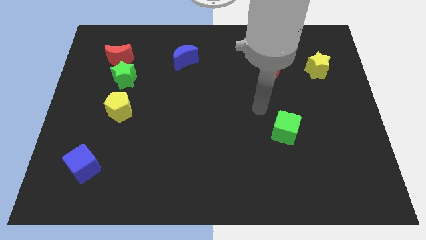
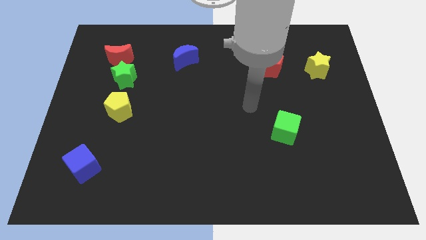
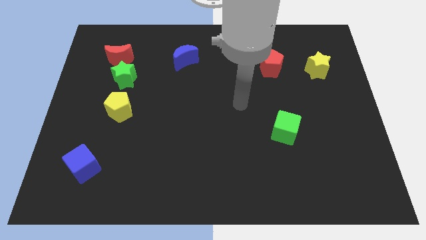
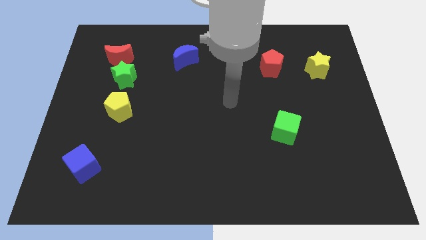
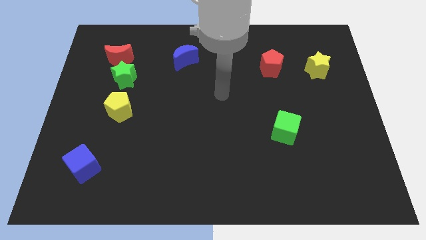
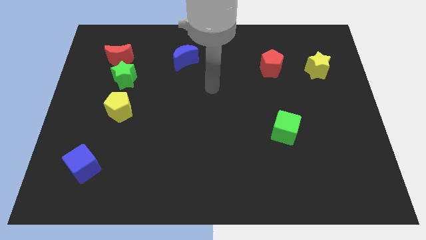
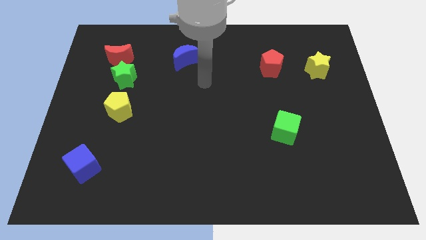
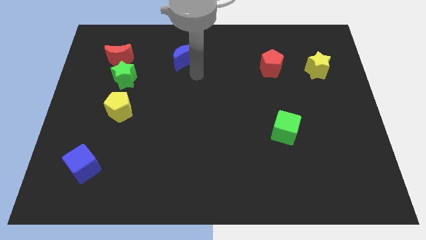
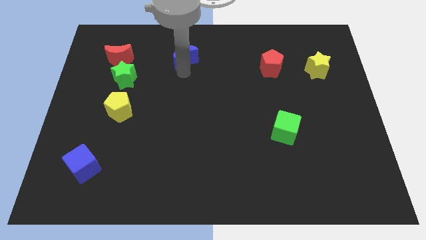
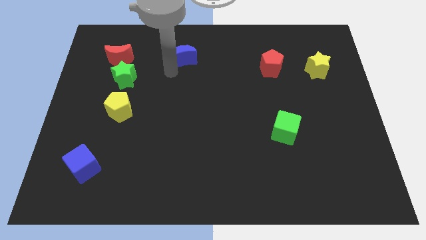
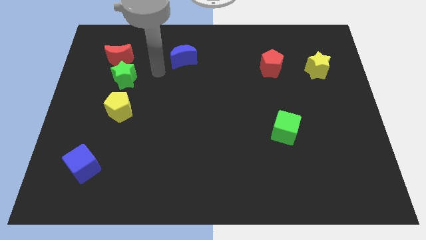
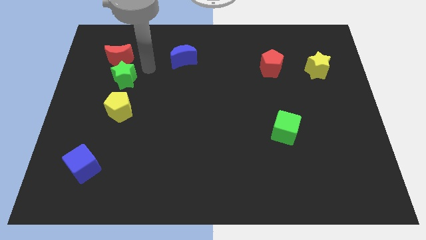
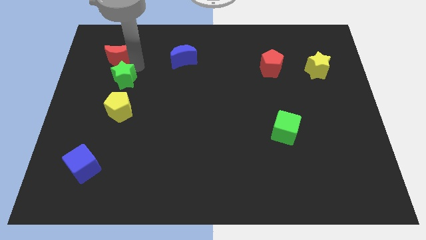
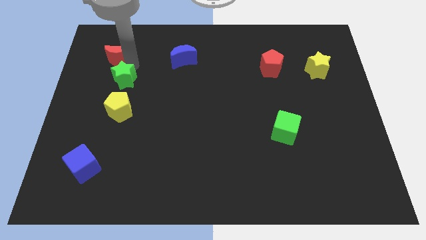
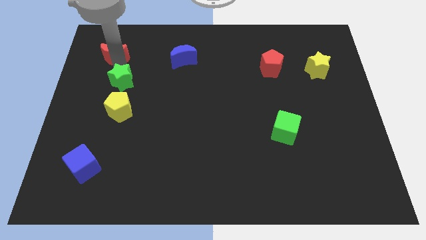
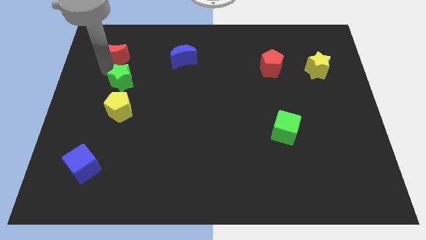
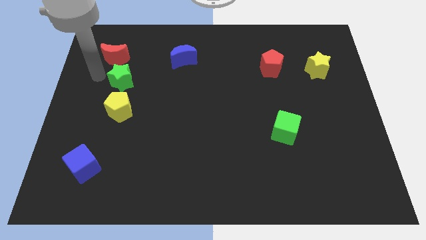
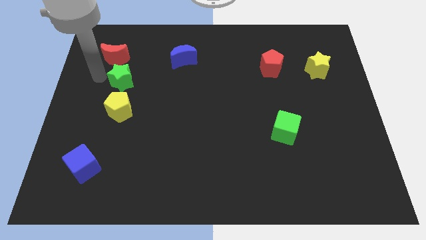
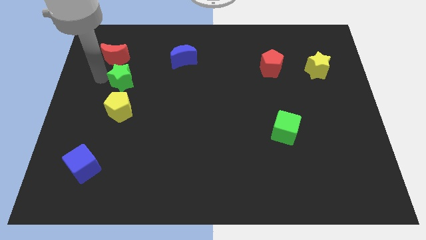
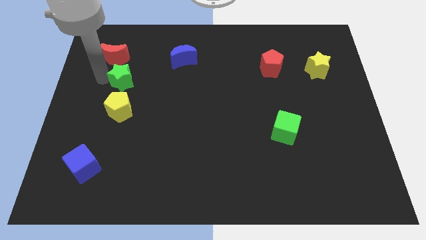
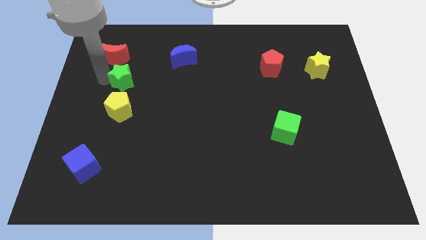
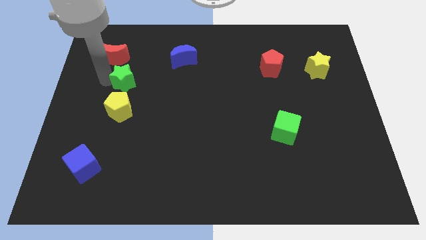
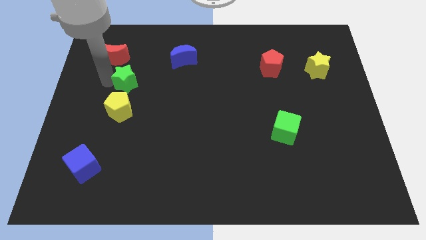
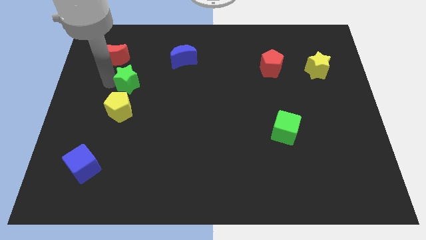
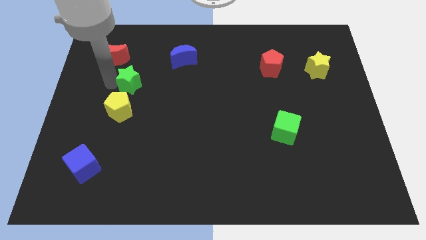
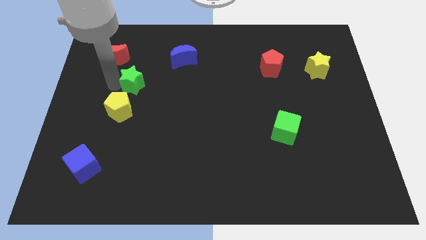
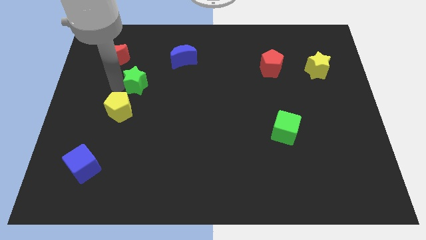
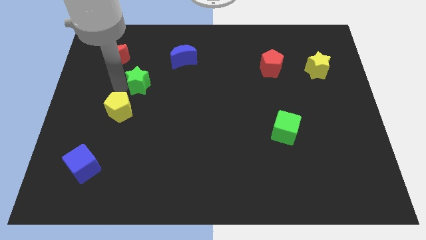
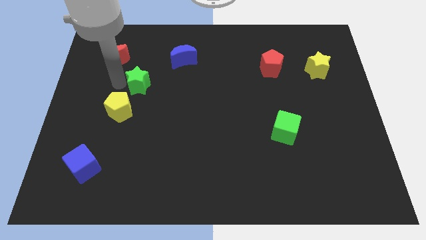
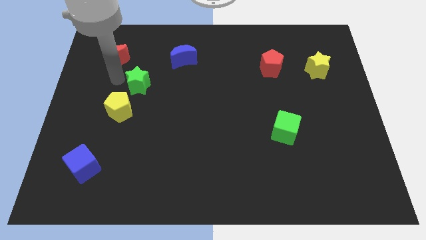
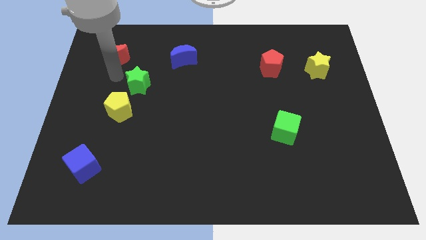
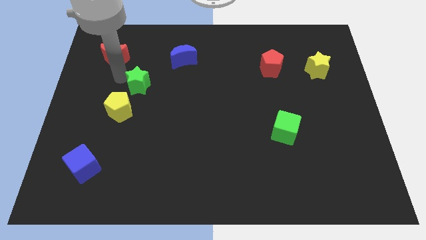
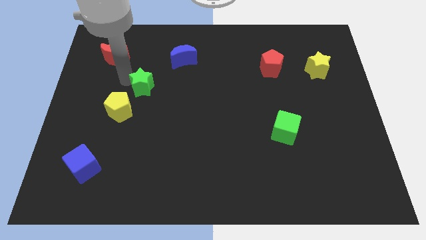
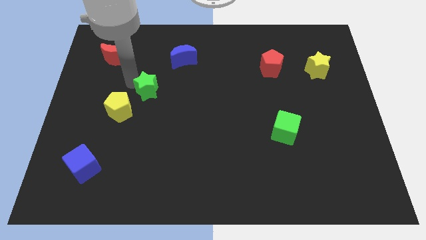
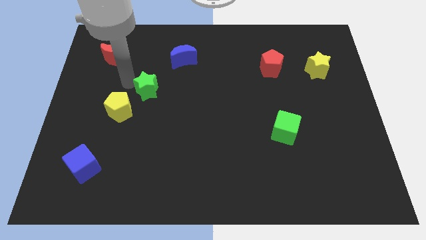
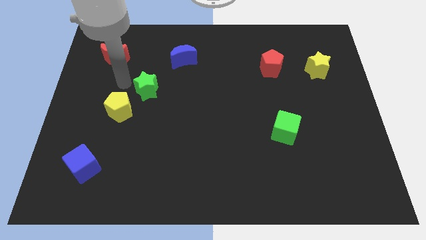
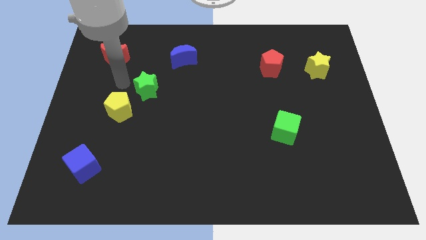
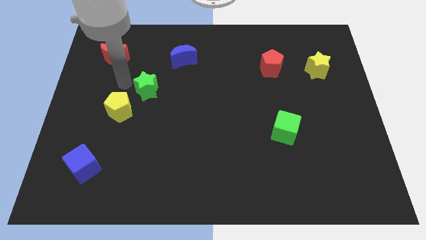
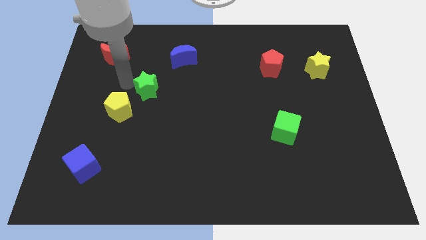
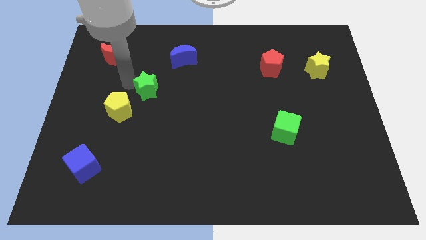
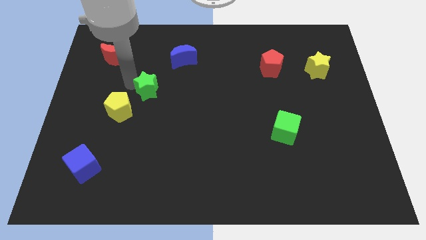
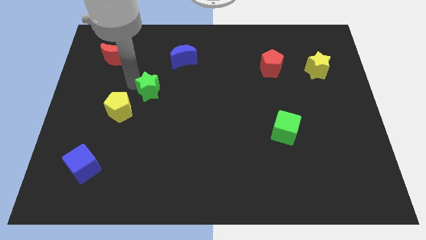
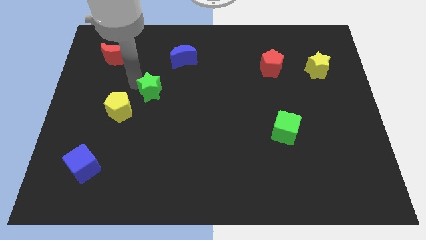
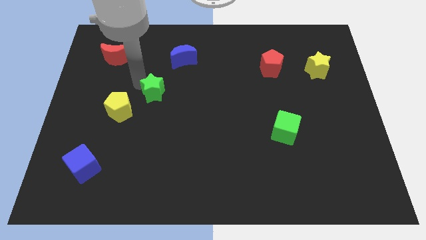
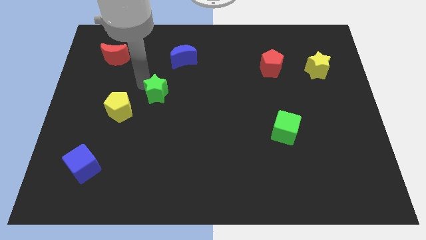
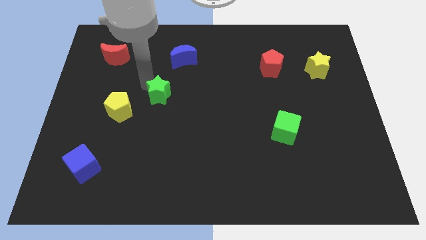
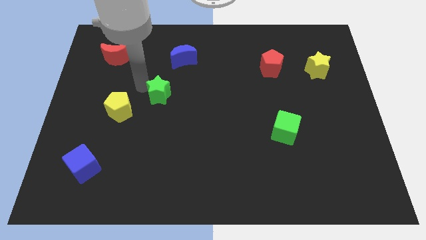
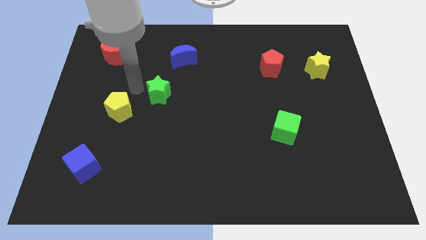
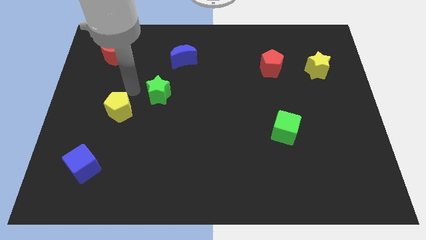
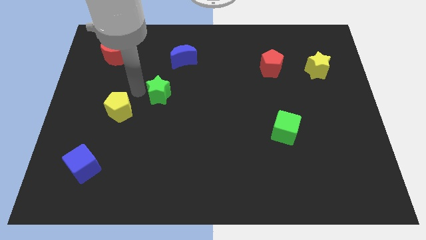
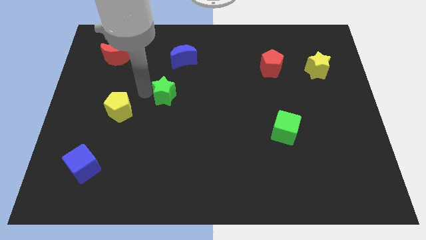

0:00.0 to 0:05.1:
put the green star to the middle of the board

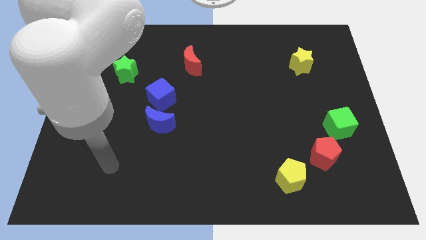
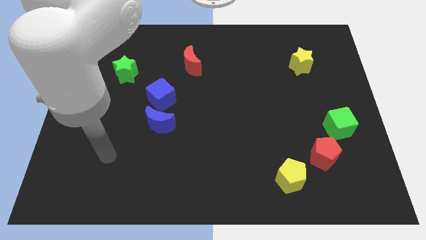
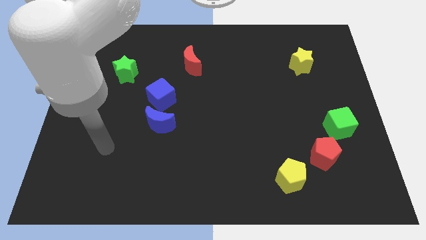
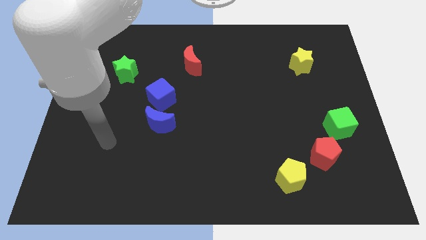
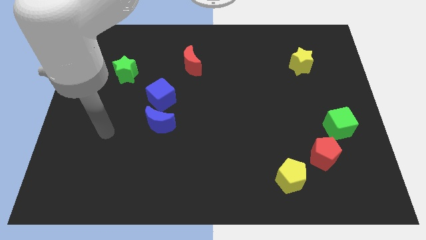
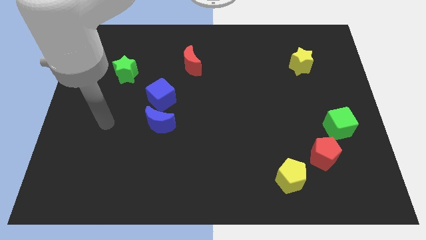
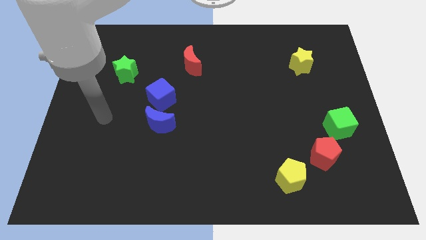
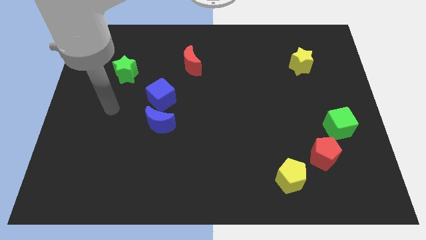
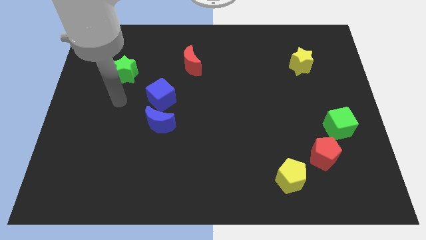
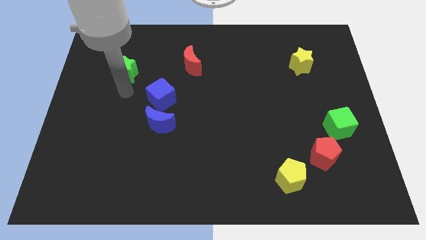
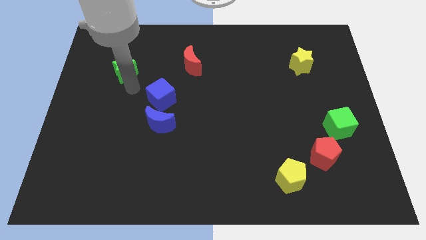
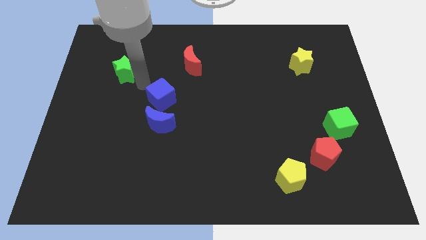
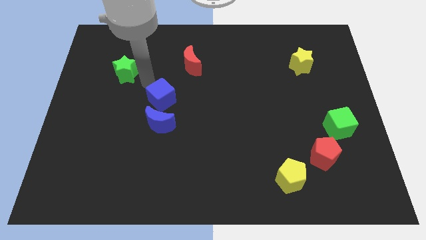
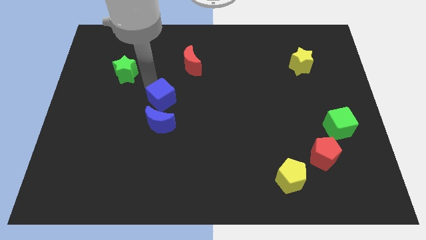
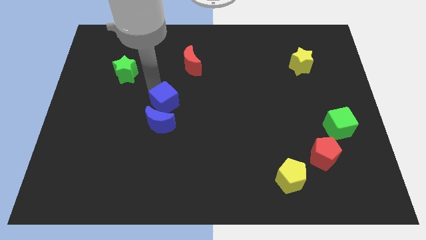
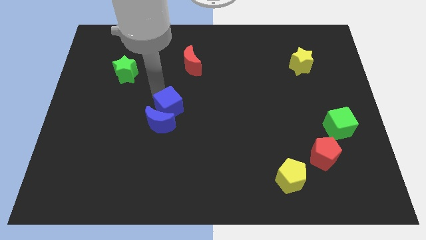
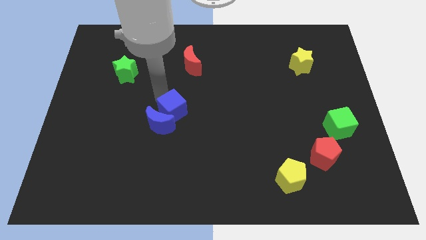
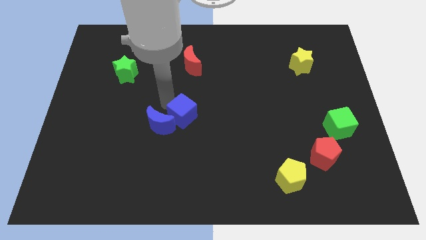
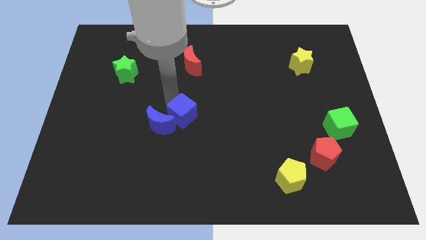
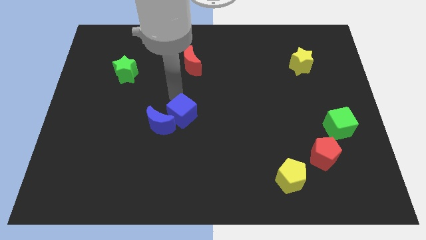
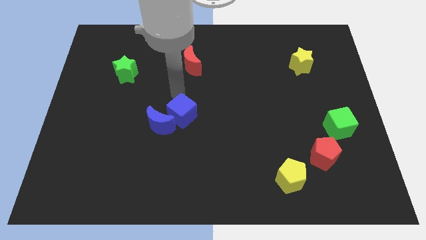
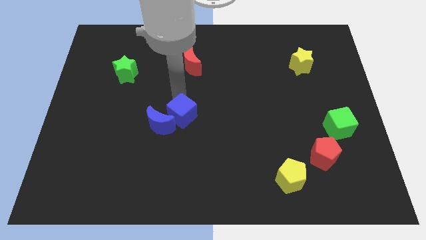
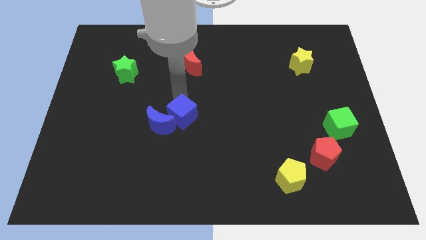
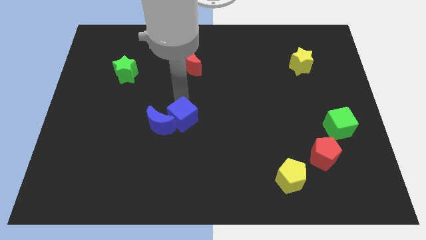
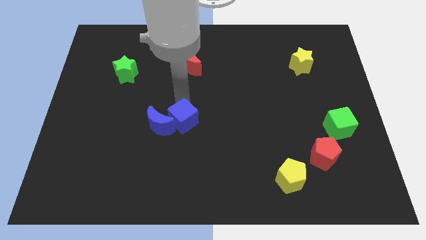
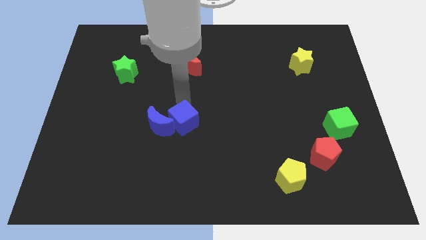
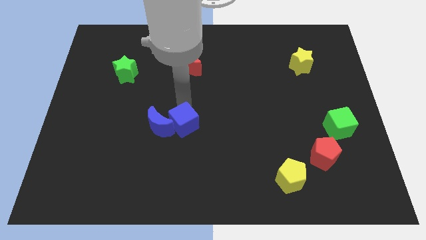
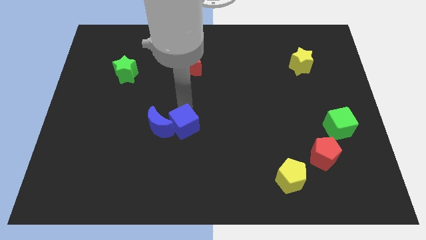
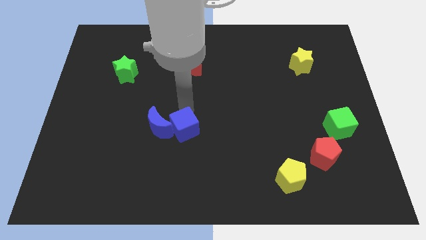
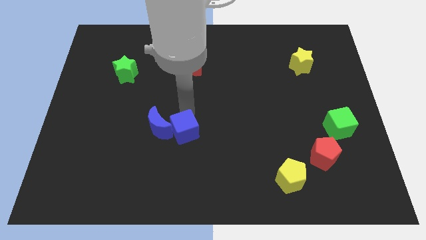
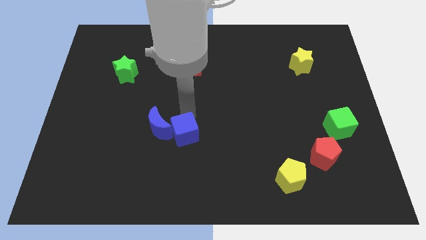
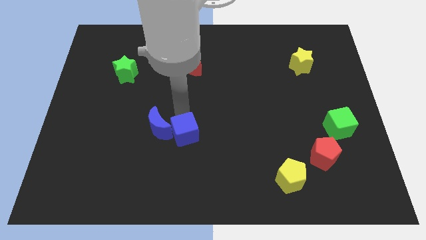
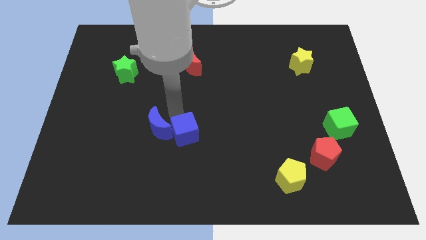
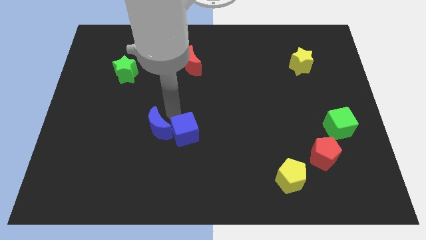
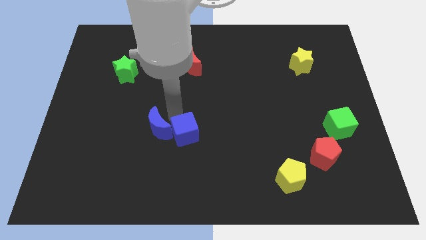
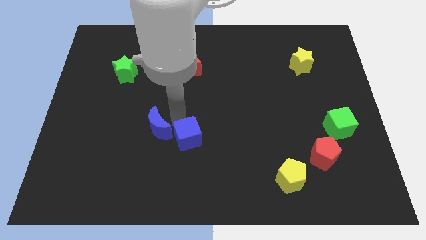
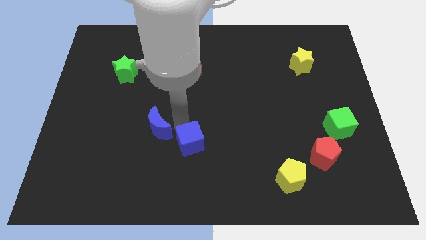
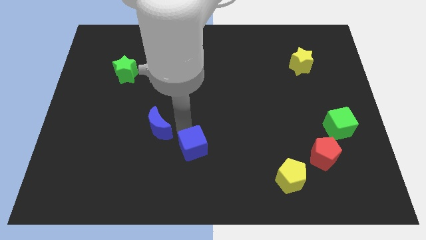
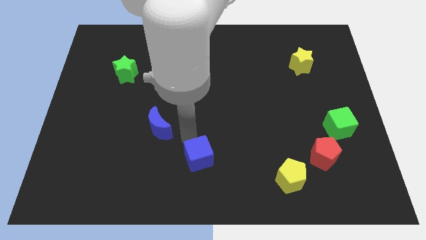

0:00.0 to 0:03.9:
push the blue cube to the bottom side
